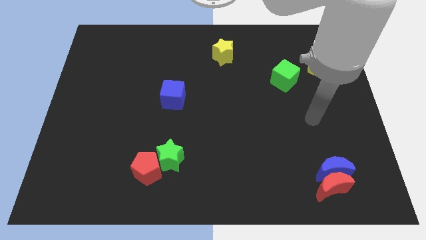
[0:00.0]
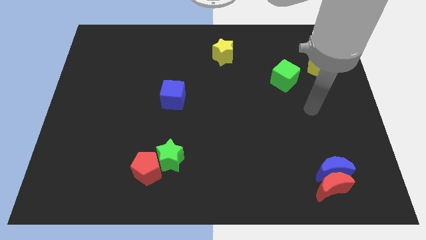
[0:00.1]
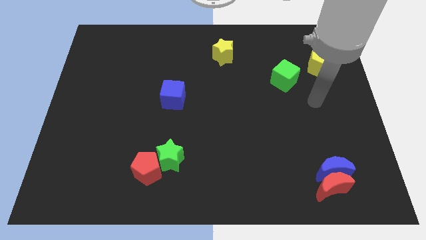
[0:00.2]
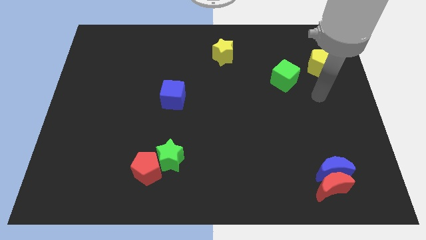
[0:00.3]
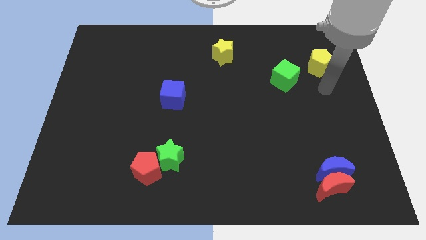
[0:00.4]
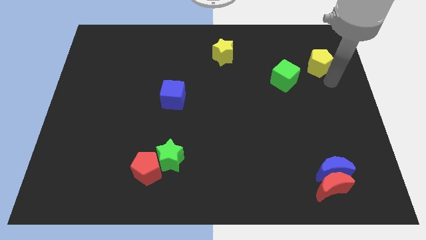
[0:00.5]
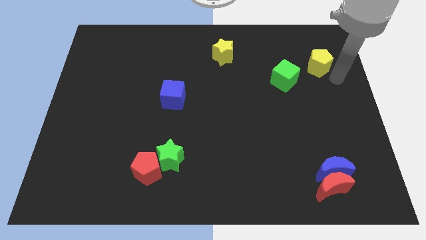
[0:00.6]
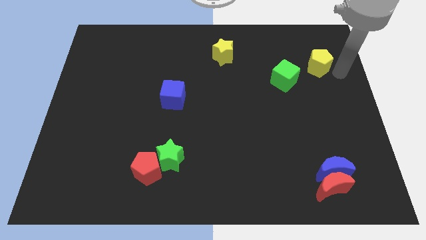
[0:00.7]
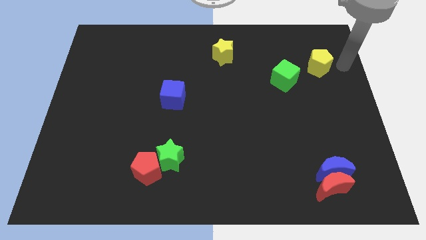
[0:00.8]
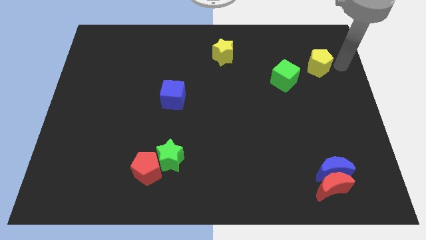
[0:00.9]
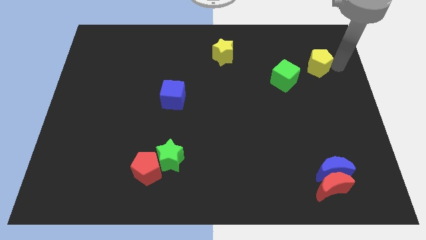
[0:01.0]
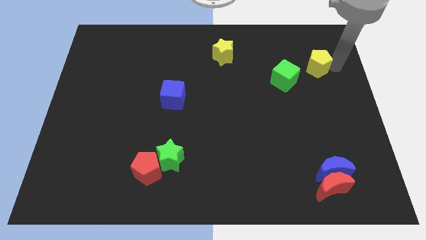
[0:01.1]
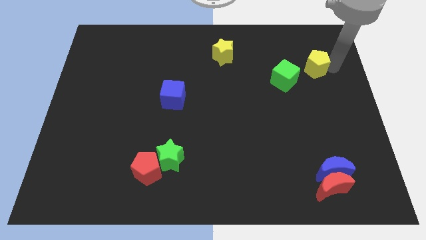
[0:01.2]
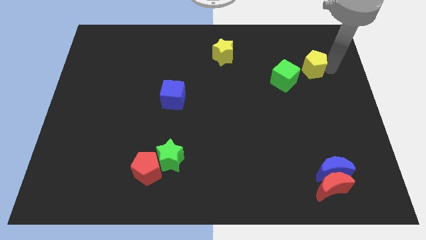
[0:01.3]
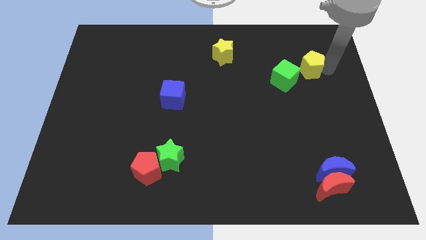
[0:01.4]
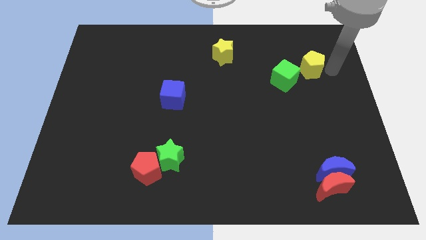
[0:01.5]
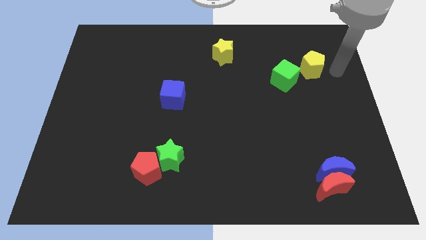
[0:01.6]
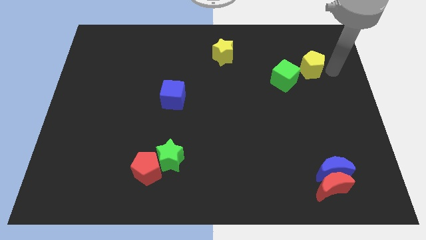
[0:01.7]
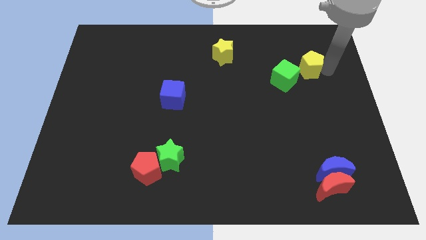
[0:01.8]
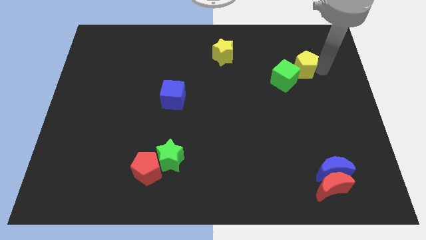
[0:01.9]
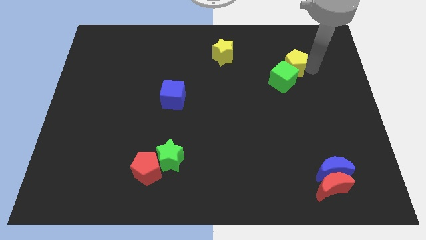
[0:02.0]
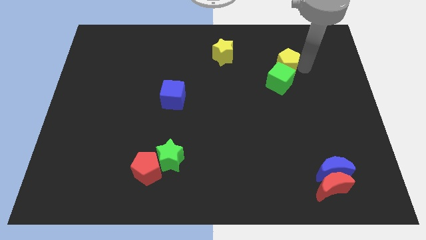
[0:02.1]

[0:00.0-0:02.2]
move the yellow pentagon left somewhat

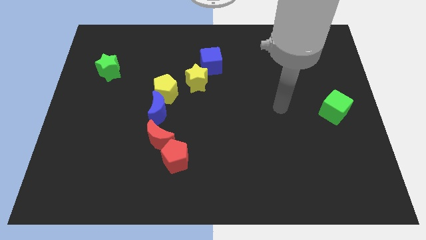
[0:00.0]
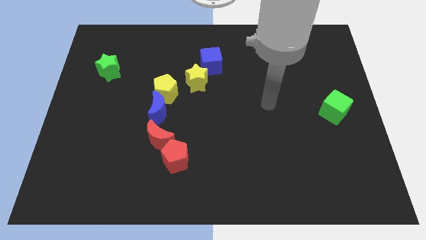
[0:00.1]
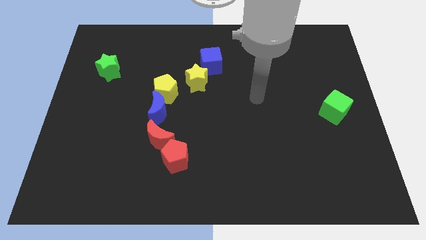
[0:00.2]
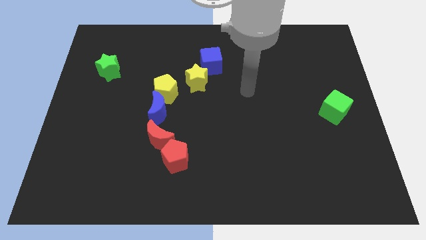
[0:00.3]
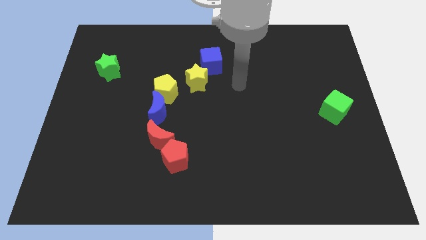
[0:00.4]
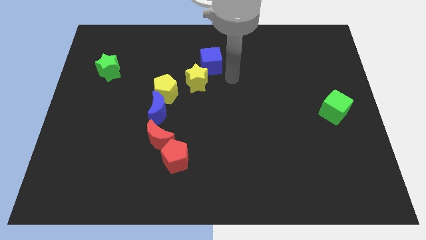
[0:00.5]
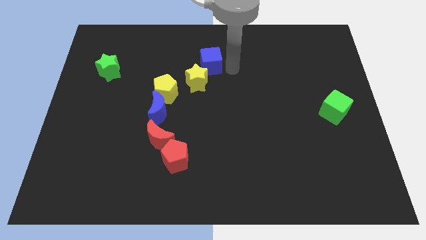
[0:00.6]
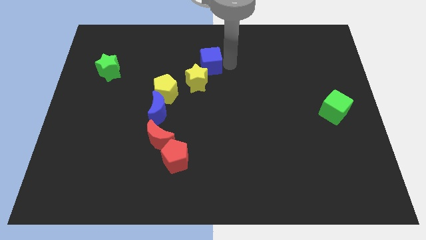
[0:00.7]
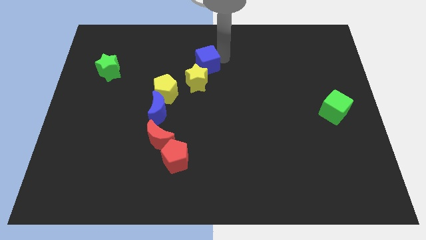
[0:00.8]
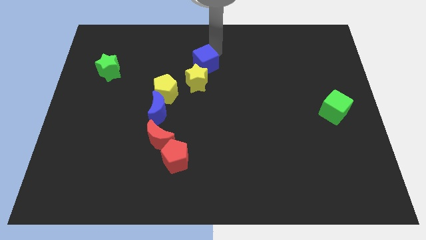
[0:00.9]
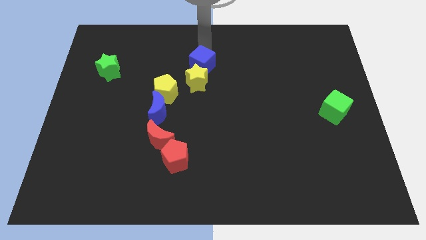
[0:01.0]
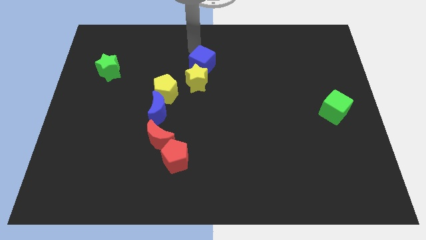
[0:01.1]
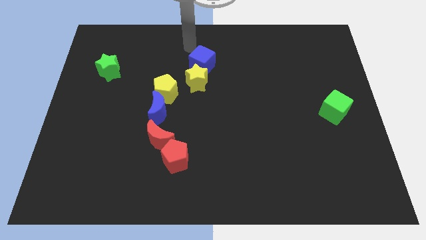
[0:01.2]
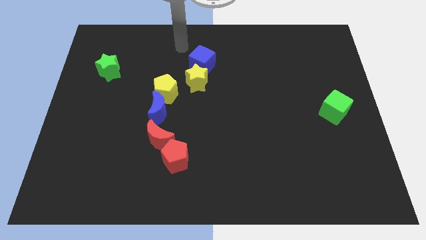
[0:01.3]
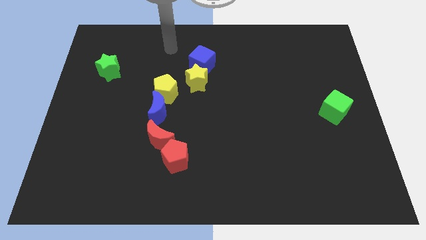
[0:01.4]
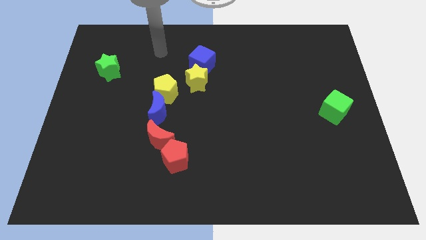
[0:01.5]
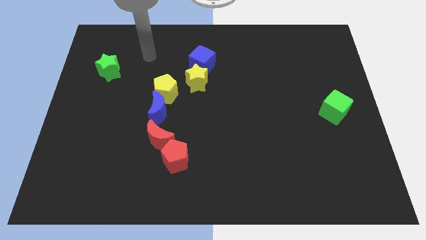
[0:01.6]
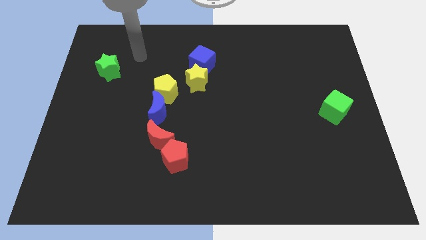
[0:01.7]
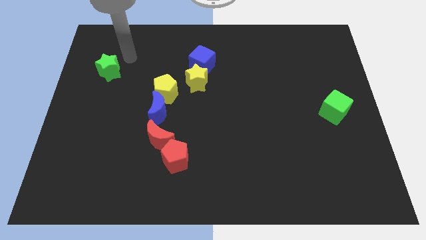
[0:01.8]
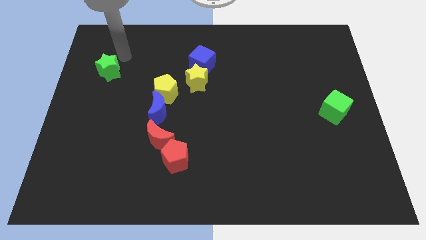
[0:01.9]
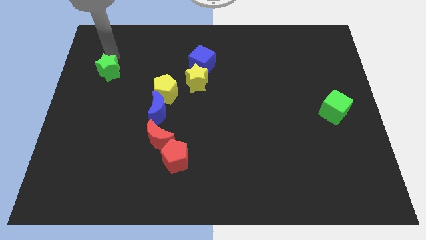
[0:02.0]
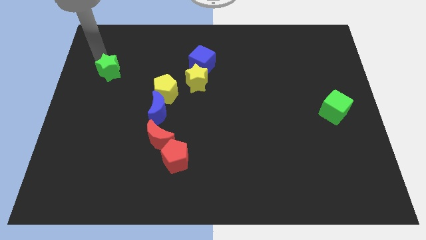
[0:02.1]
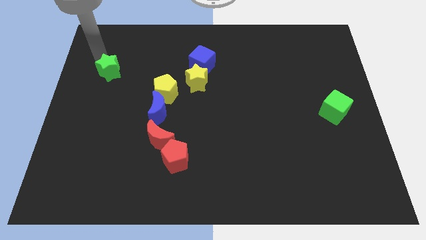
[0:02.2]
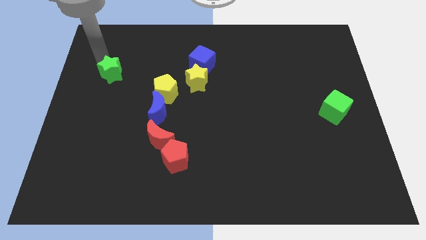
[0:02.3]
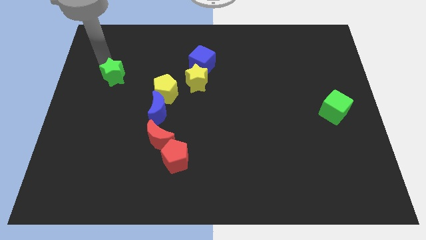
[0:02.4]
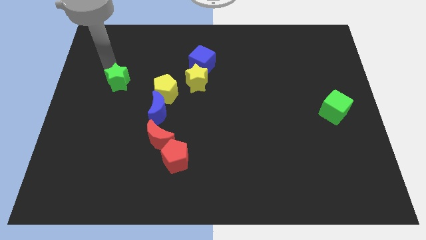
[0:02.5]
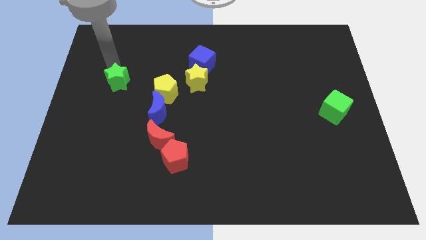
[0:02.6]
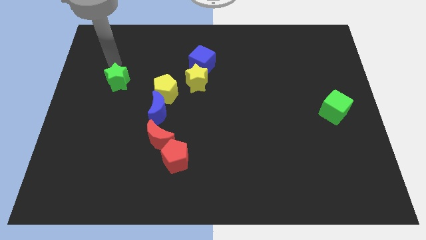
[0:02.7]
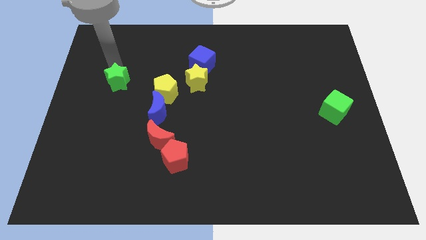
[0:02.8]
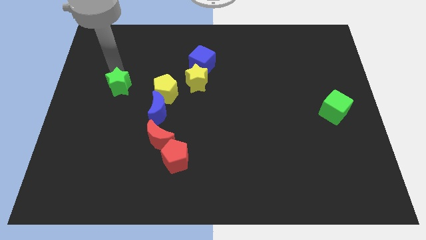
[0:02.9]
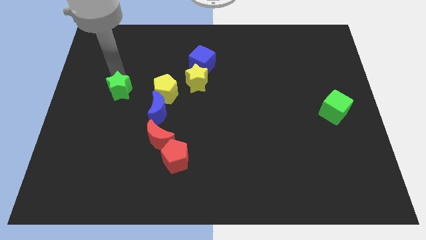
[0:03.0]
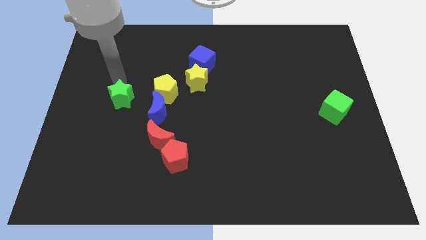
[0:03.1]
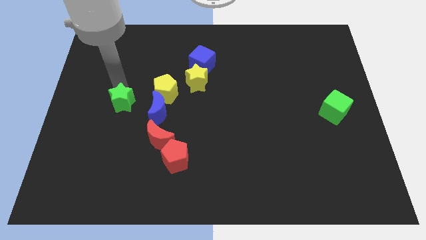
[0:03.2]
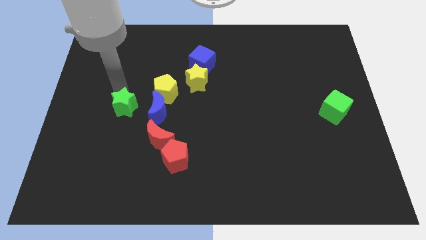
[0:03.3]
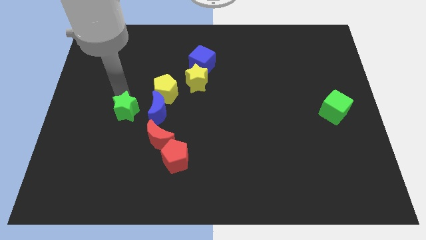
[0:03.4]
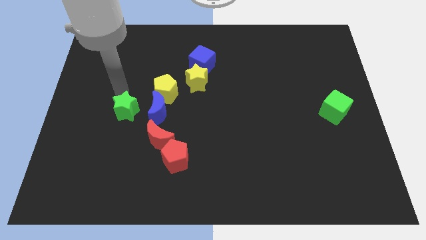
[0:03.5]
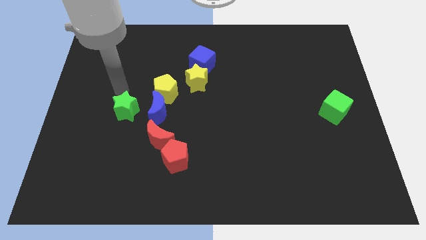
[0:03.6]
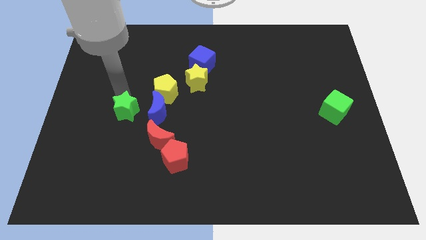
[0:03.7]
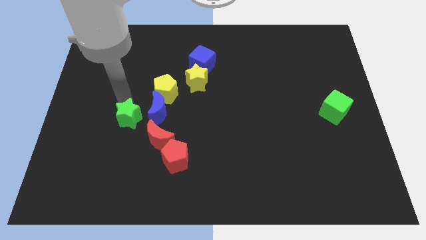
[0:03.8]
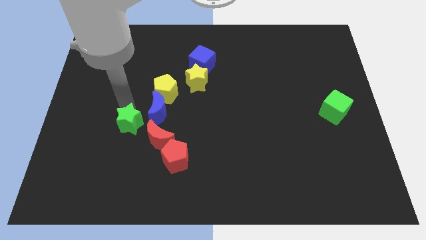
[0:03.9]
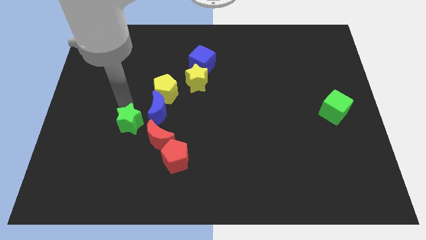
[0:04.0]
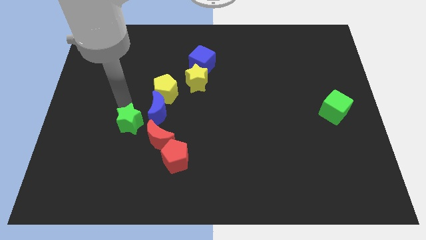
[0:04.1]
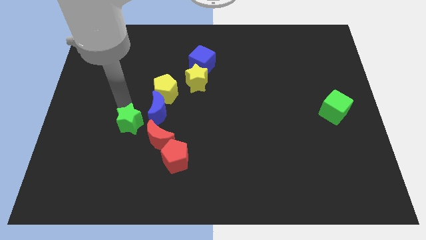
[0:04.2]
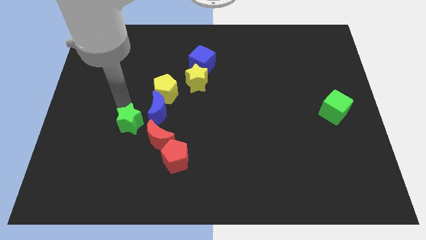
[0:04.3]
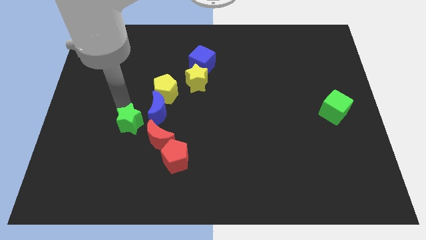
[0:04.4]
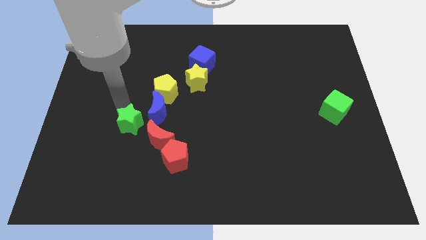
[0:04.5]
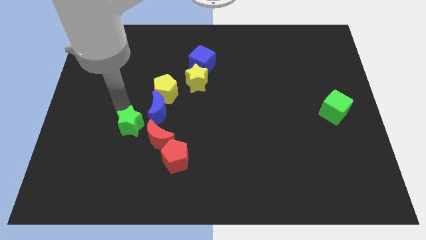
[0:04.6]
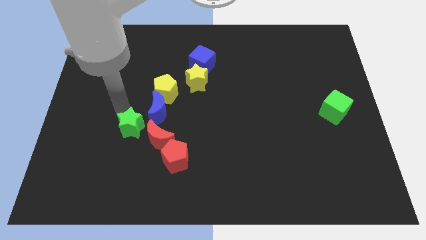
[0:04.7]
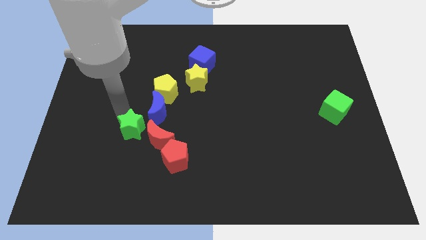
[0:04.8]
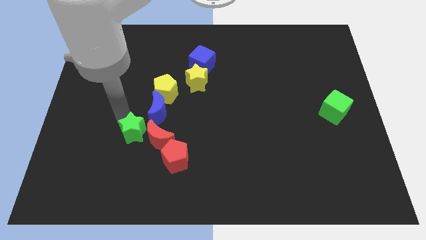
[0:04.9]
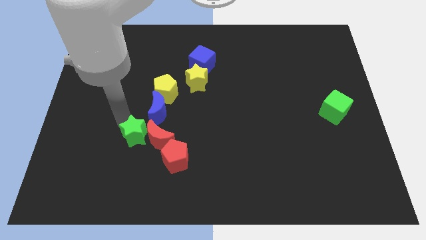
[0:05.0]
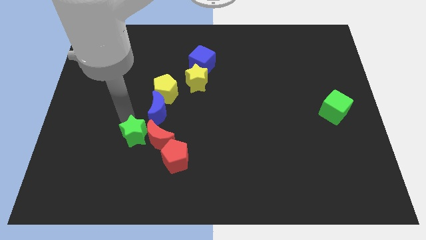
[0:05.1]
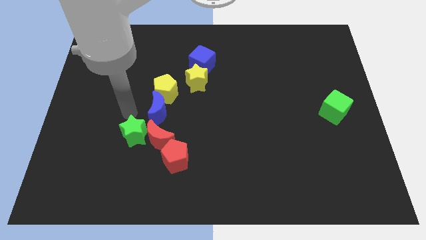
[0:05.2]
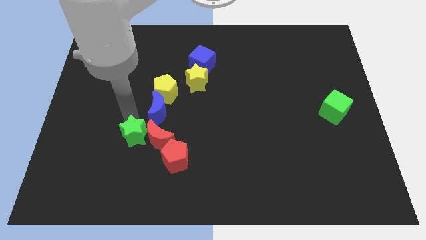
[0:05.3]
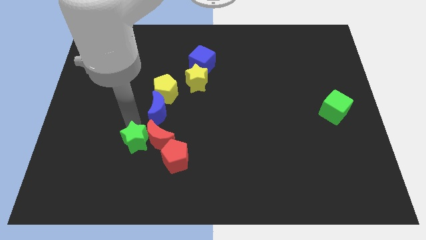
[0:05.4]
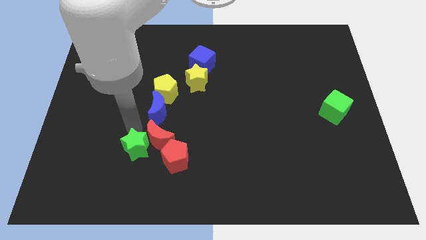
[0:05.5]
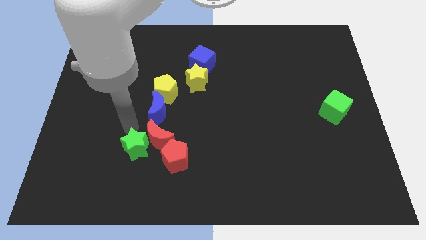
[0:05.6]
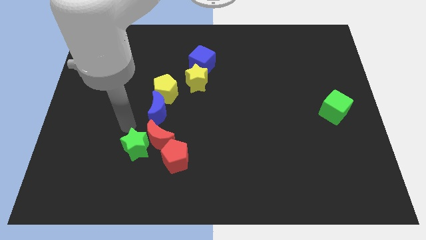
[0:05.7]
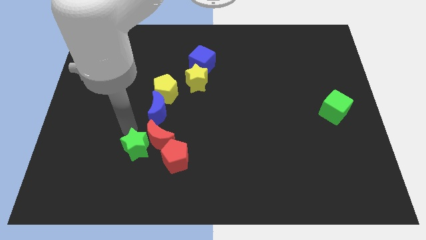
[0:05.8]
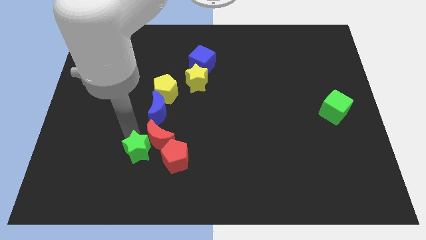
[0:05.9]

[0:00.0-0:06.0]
slide the green star down and to the right diagonally
